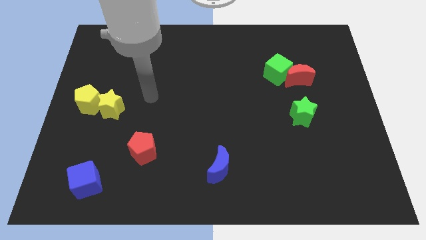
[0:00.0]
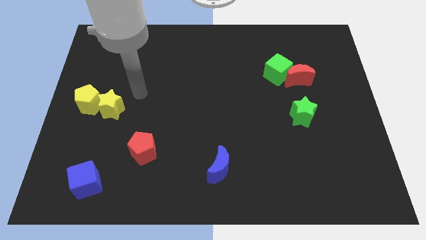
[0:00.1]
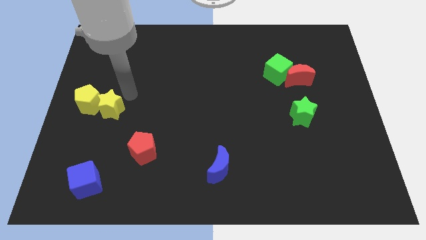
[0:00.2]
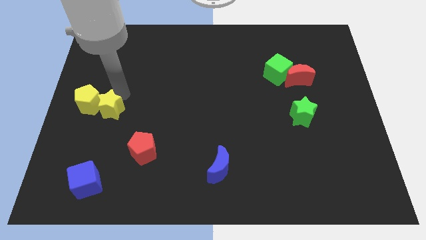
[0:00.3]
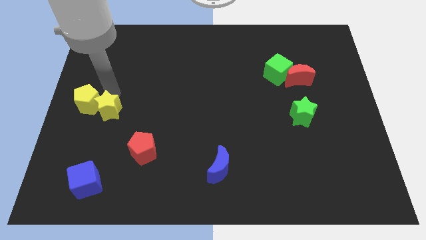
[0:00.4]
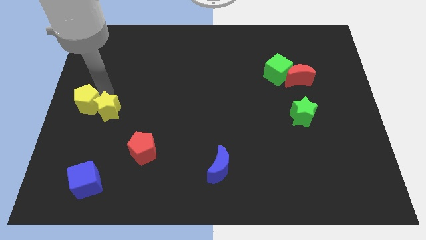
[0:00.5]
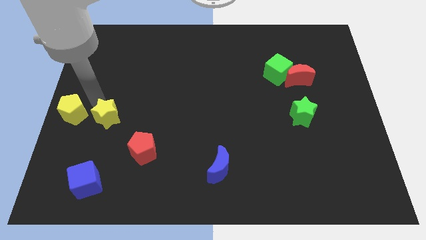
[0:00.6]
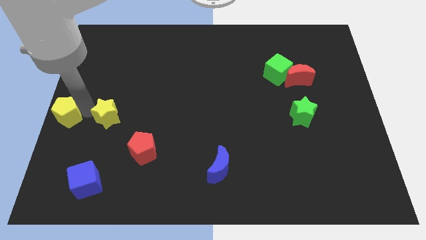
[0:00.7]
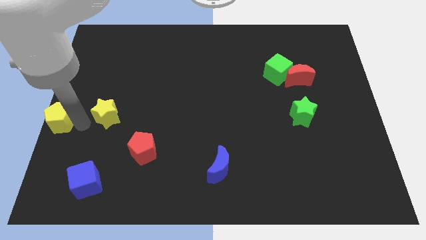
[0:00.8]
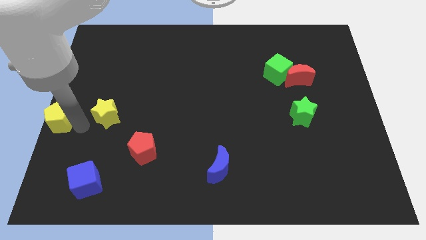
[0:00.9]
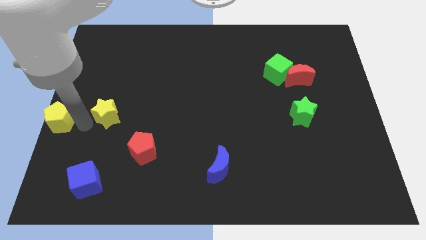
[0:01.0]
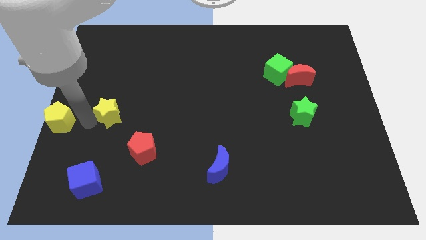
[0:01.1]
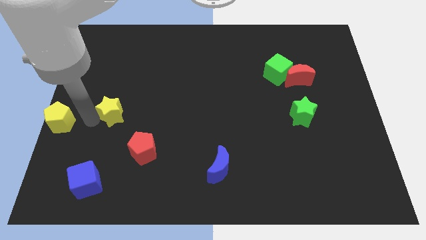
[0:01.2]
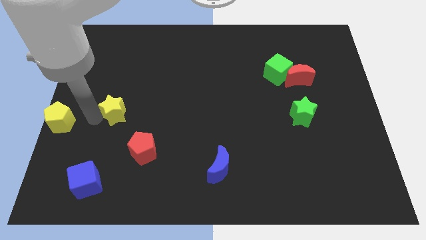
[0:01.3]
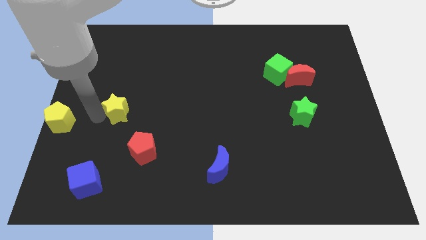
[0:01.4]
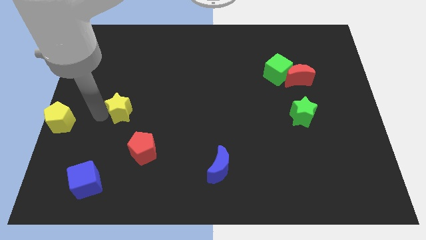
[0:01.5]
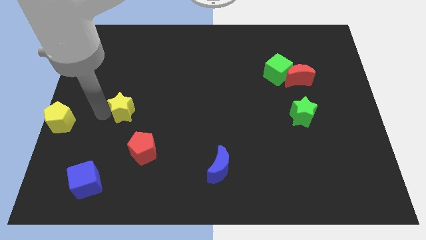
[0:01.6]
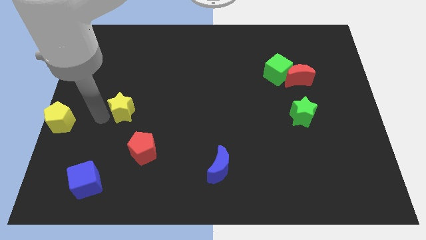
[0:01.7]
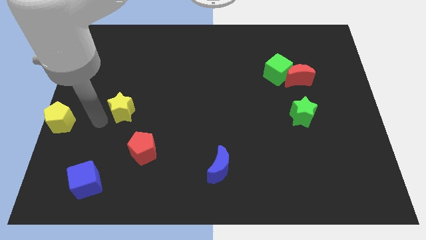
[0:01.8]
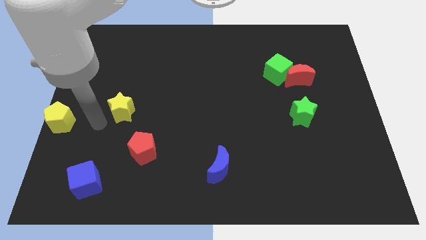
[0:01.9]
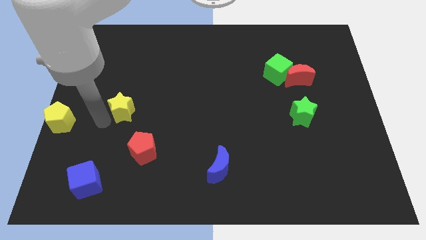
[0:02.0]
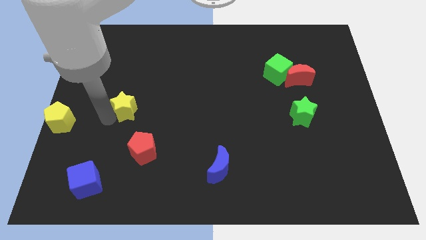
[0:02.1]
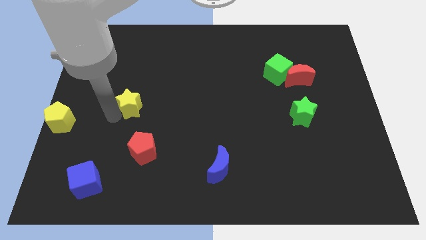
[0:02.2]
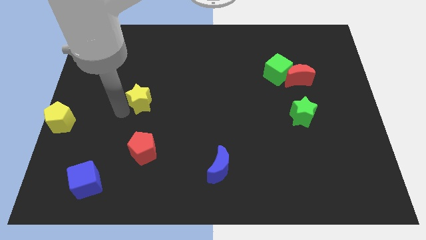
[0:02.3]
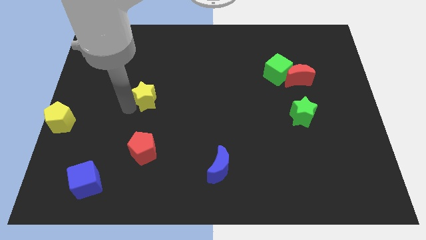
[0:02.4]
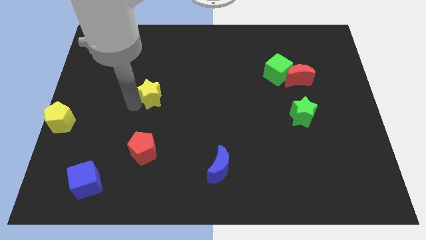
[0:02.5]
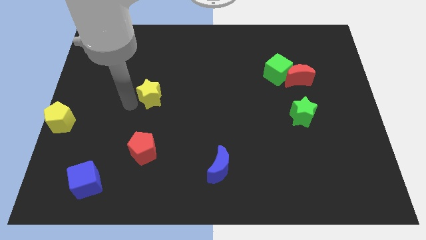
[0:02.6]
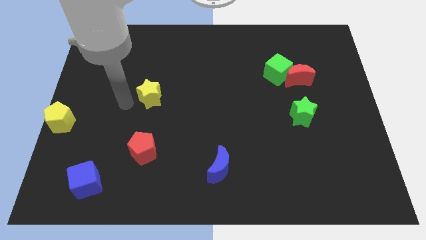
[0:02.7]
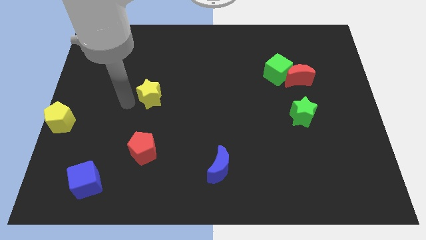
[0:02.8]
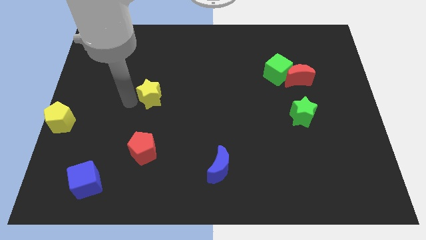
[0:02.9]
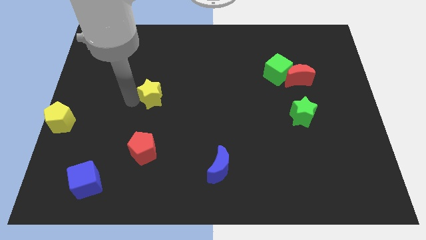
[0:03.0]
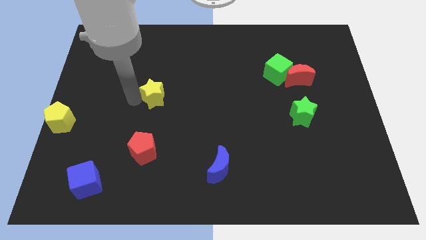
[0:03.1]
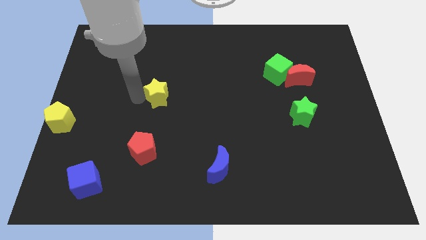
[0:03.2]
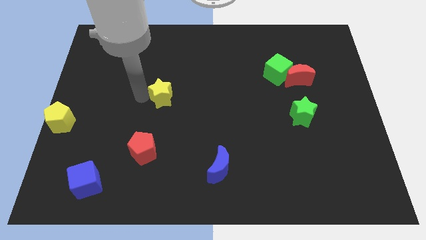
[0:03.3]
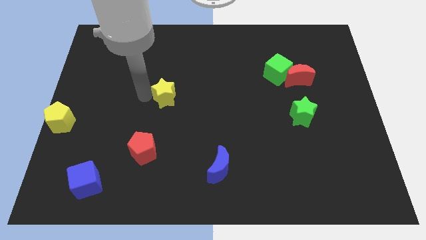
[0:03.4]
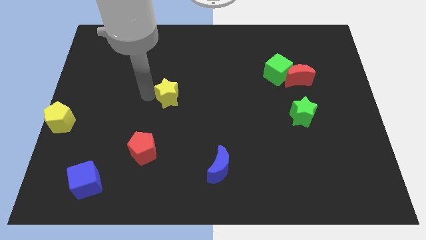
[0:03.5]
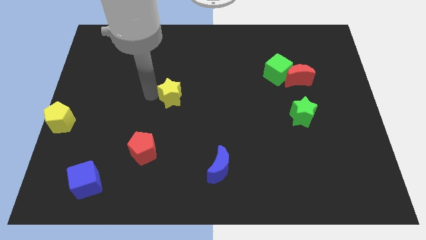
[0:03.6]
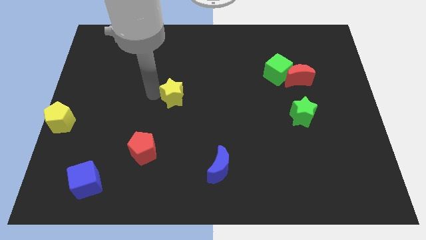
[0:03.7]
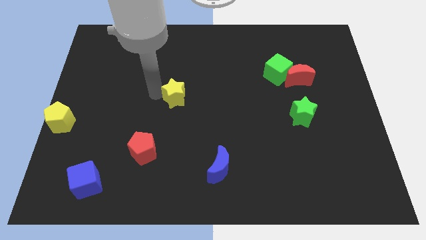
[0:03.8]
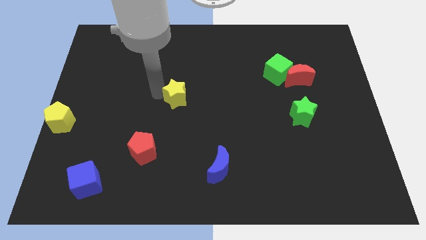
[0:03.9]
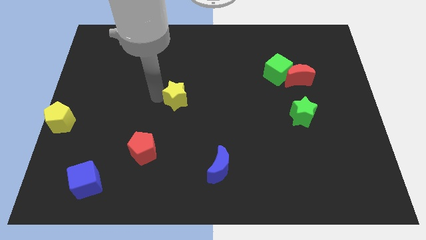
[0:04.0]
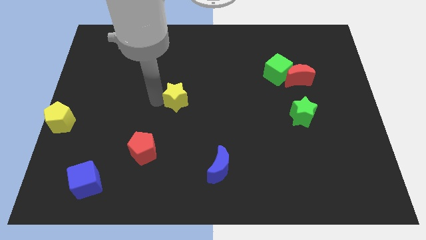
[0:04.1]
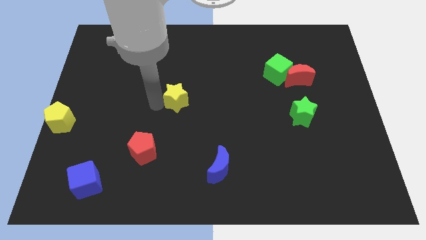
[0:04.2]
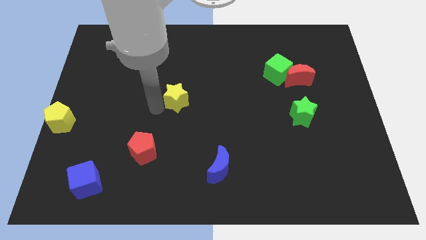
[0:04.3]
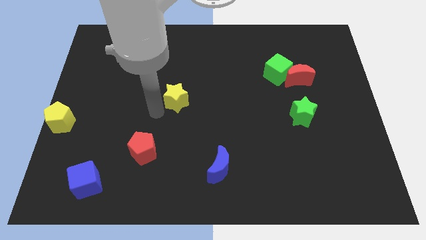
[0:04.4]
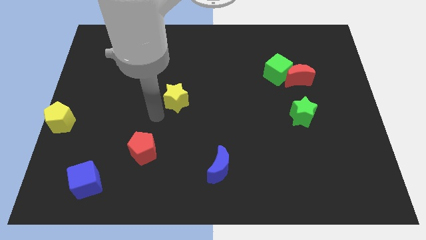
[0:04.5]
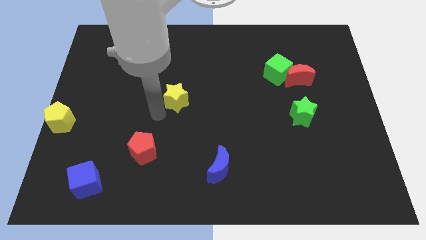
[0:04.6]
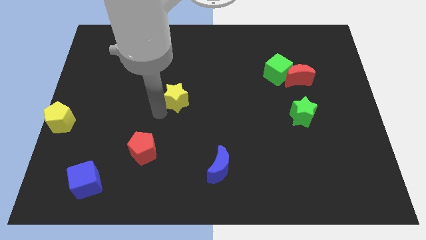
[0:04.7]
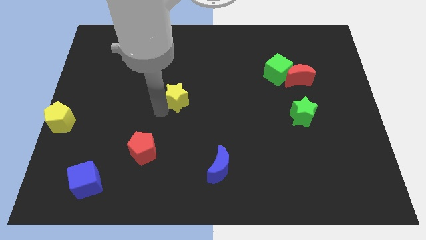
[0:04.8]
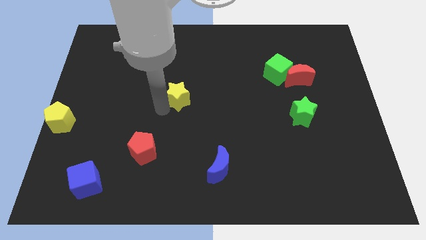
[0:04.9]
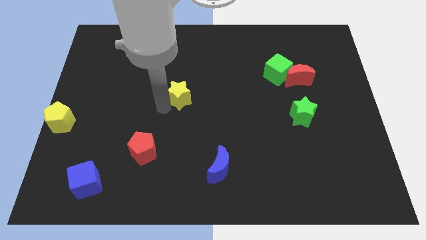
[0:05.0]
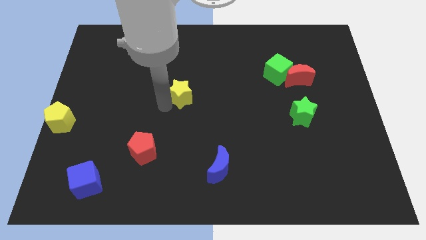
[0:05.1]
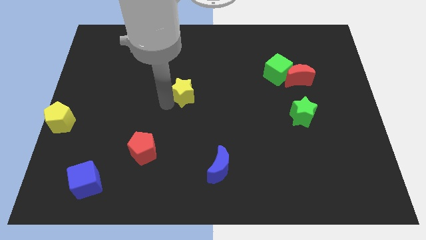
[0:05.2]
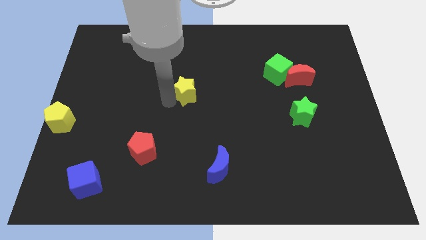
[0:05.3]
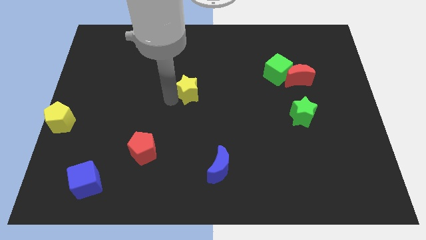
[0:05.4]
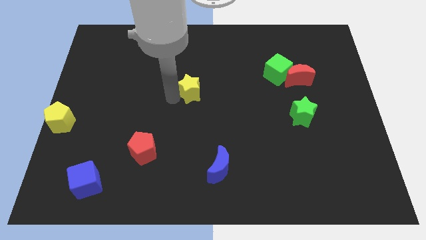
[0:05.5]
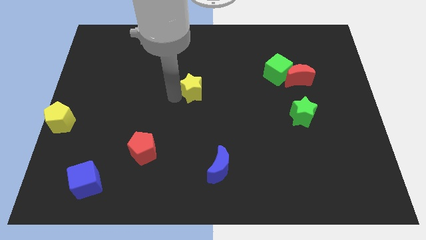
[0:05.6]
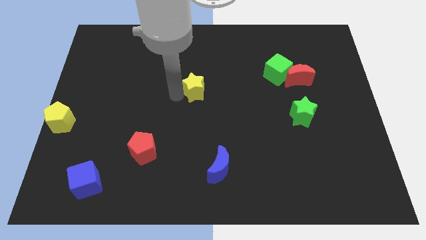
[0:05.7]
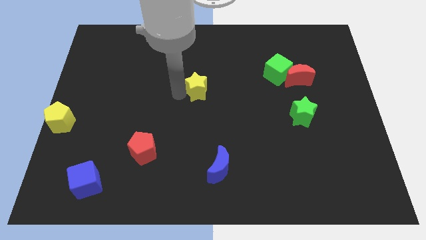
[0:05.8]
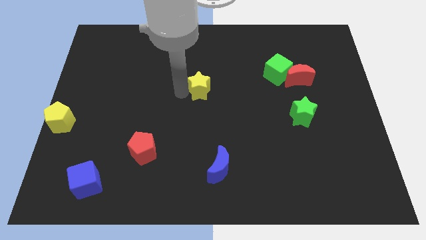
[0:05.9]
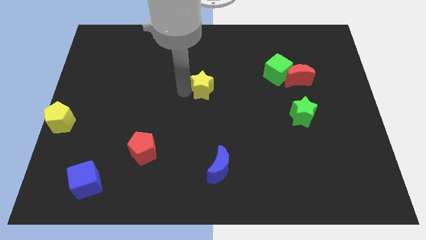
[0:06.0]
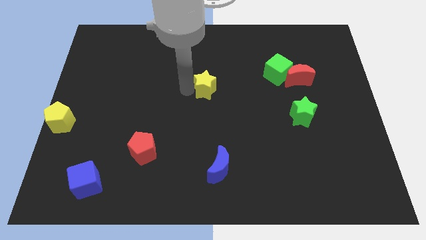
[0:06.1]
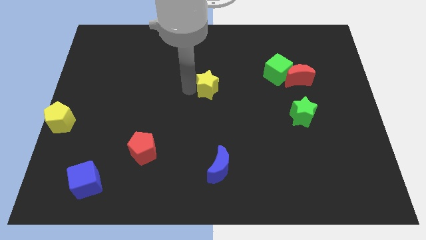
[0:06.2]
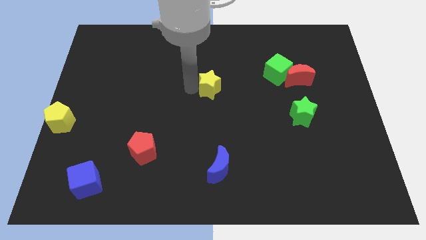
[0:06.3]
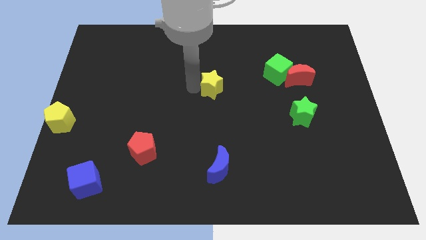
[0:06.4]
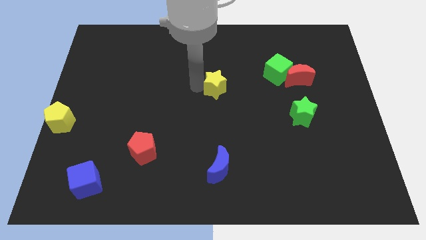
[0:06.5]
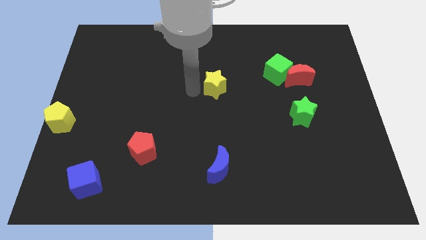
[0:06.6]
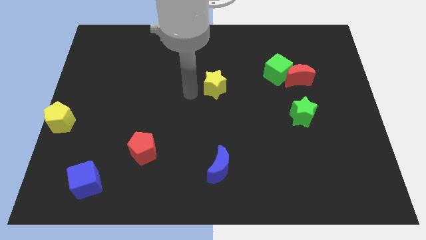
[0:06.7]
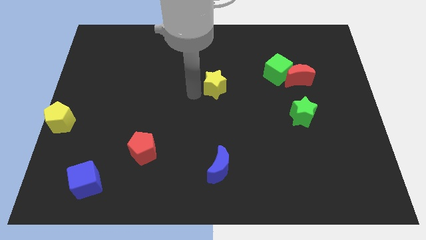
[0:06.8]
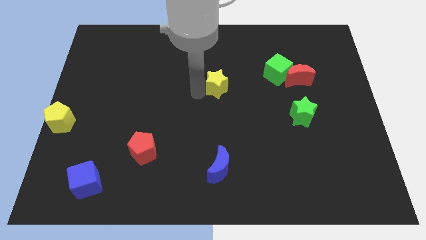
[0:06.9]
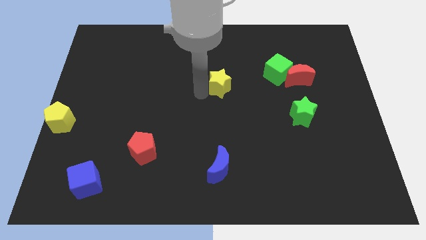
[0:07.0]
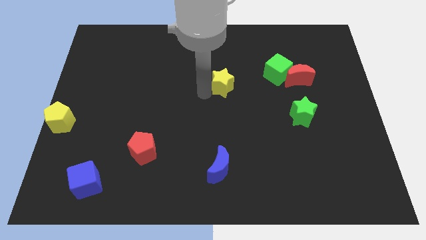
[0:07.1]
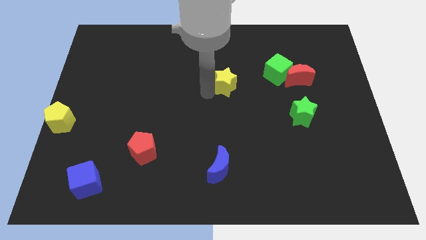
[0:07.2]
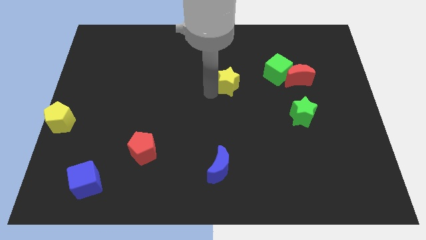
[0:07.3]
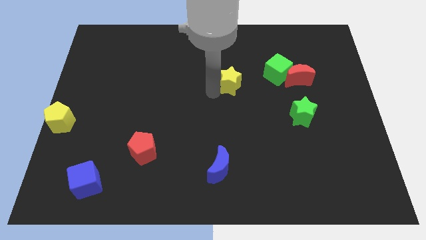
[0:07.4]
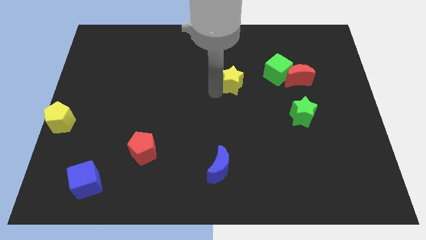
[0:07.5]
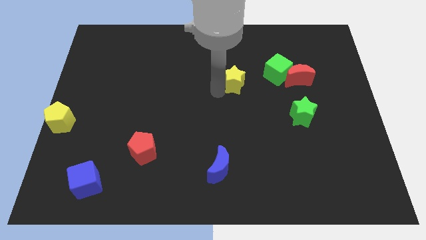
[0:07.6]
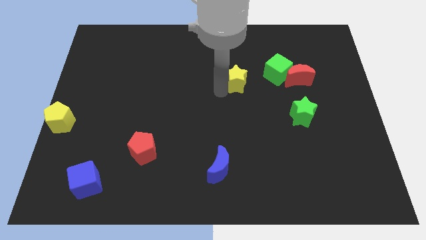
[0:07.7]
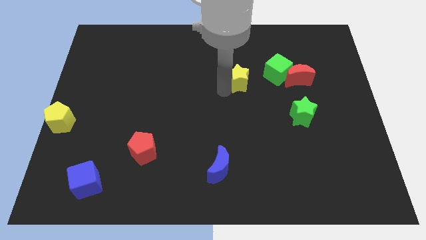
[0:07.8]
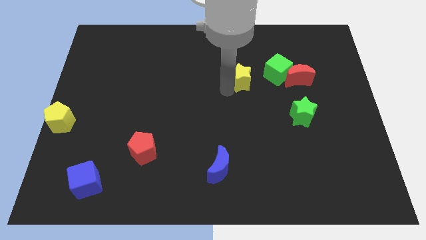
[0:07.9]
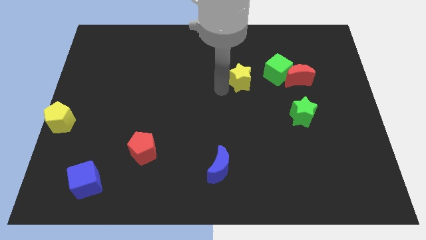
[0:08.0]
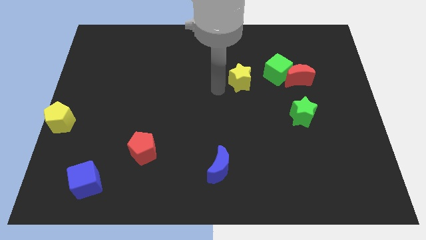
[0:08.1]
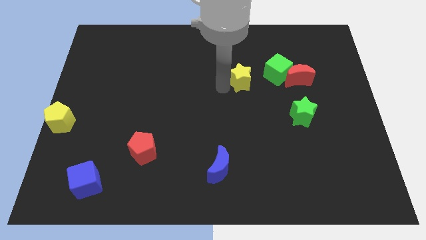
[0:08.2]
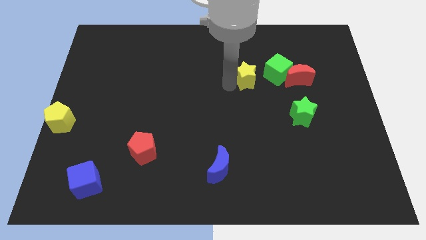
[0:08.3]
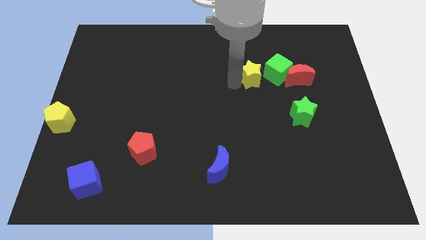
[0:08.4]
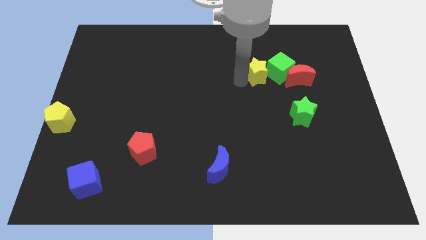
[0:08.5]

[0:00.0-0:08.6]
push the yellow star towards the green cube
